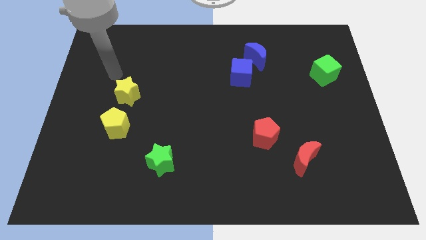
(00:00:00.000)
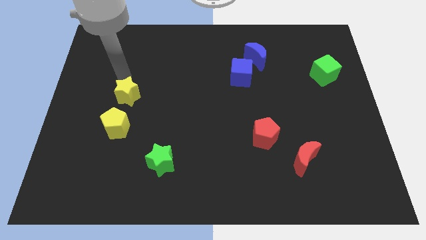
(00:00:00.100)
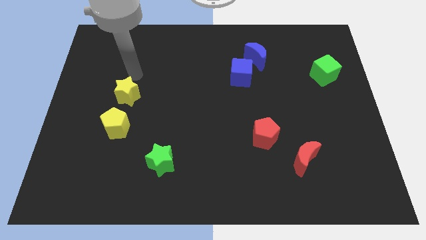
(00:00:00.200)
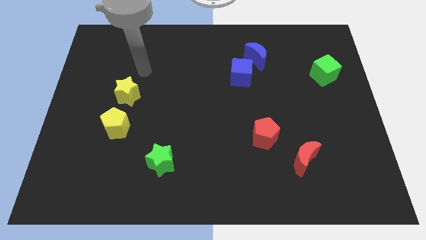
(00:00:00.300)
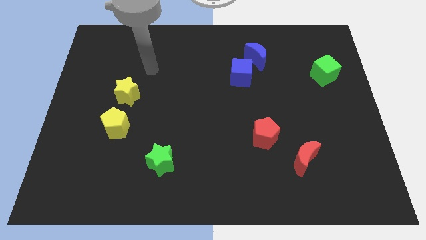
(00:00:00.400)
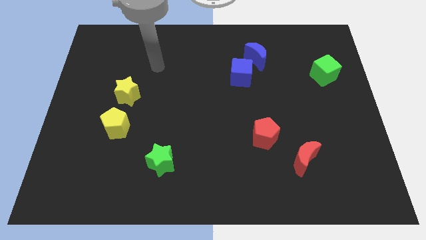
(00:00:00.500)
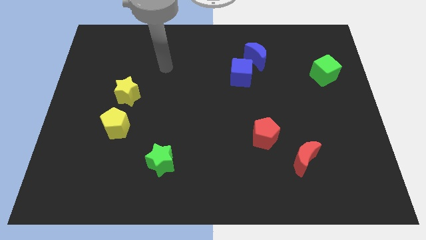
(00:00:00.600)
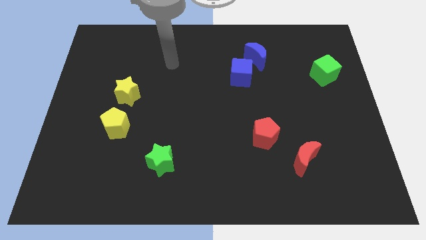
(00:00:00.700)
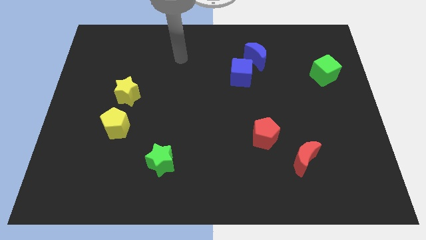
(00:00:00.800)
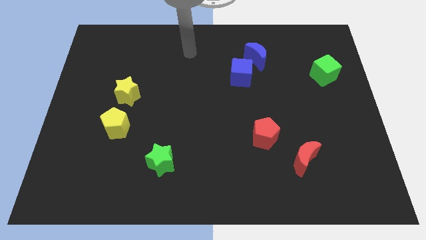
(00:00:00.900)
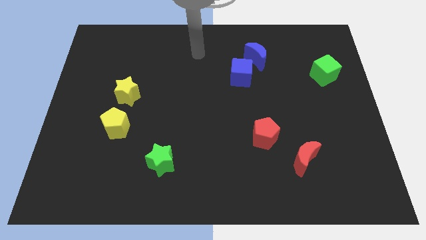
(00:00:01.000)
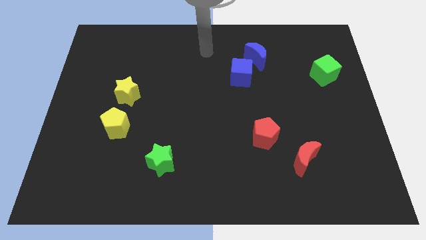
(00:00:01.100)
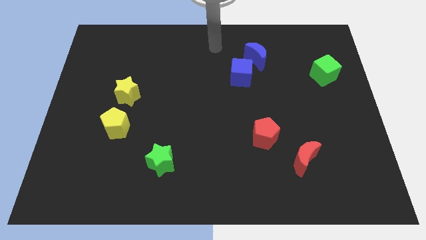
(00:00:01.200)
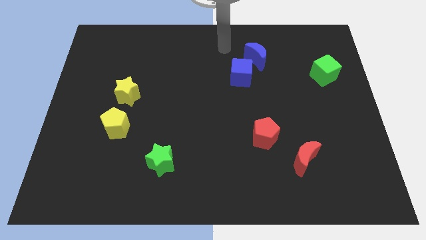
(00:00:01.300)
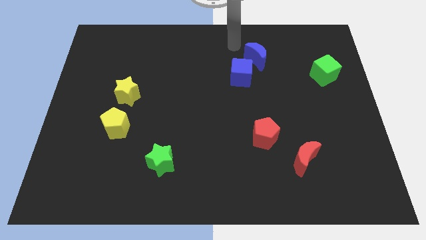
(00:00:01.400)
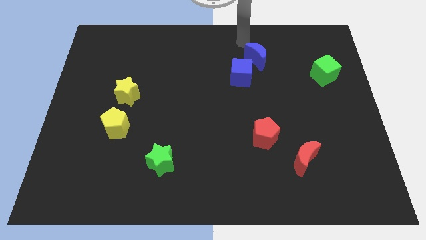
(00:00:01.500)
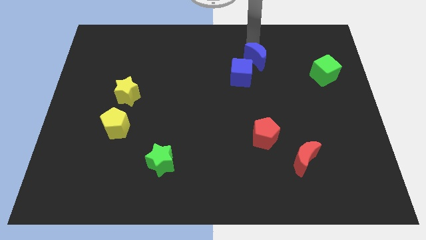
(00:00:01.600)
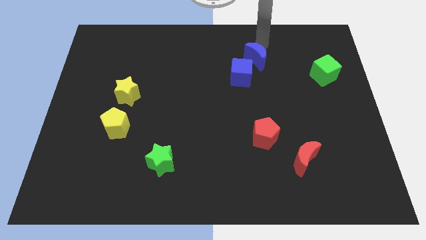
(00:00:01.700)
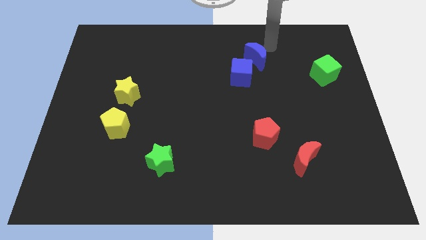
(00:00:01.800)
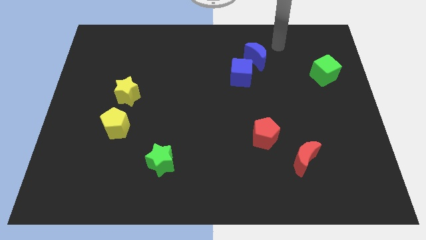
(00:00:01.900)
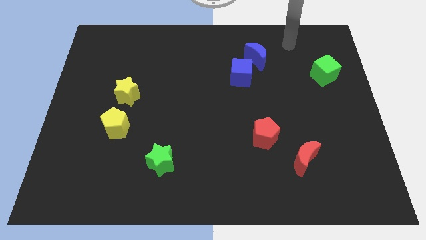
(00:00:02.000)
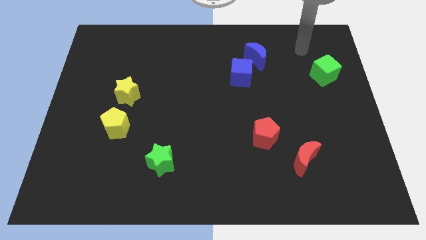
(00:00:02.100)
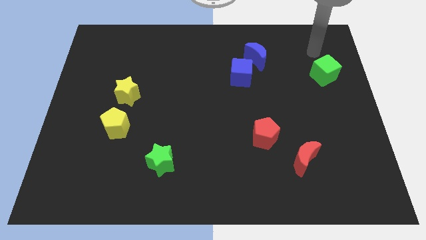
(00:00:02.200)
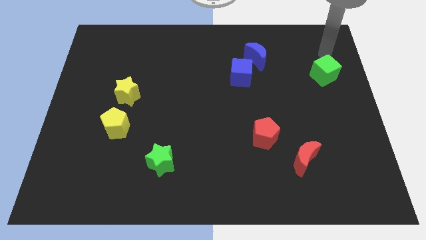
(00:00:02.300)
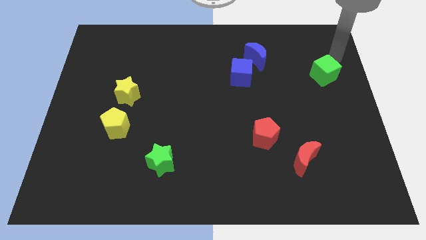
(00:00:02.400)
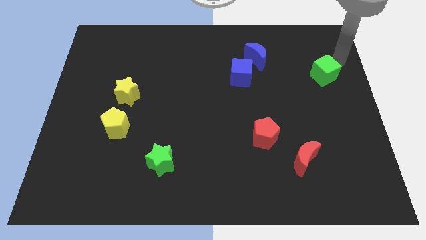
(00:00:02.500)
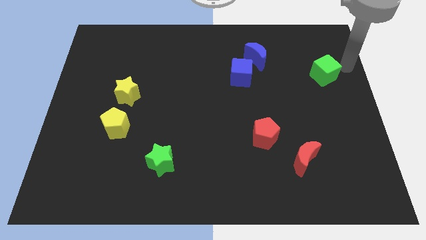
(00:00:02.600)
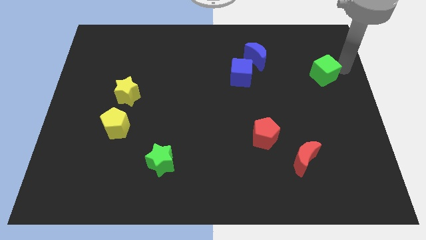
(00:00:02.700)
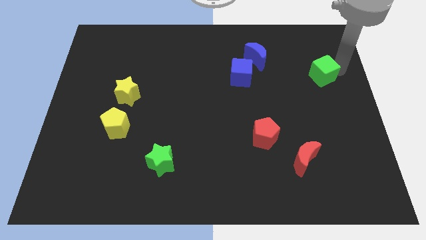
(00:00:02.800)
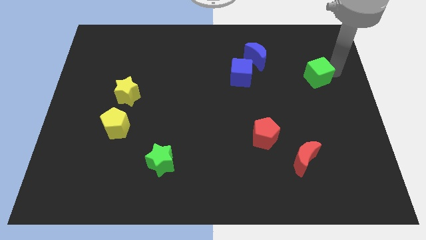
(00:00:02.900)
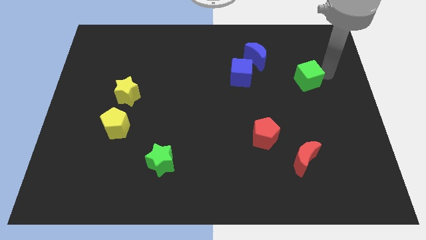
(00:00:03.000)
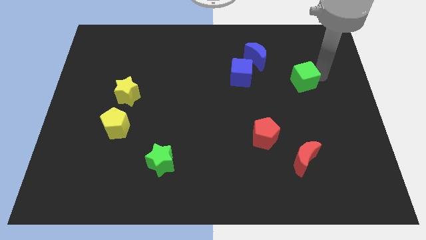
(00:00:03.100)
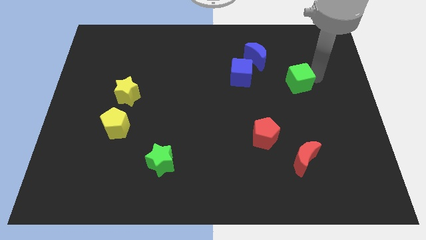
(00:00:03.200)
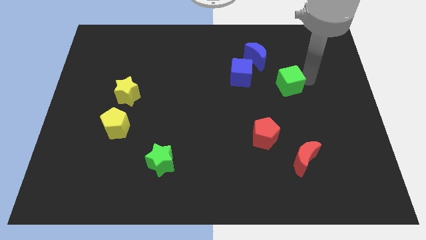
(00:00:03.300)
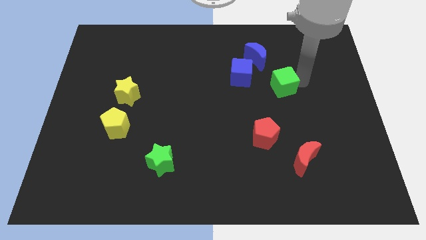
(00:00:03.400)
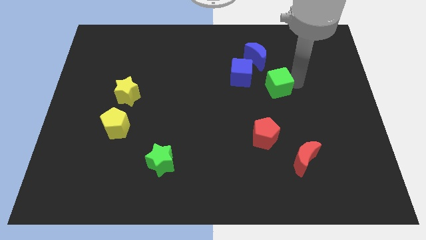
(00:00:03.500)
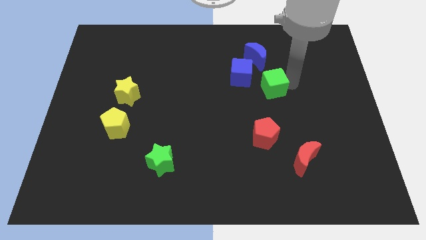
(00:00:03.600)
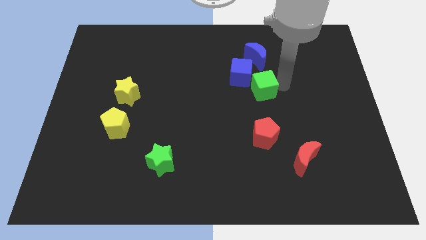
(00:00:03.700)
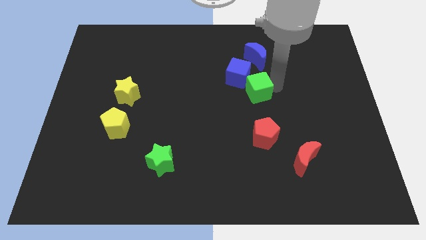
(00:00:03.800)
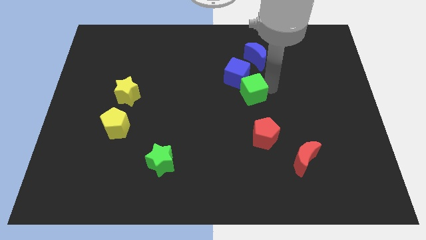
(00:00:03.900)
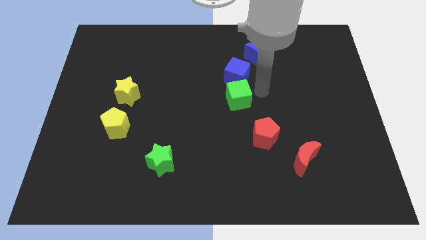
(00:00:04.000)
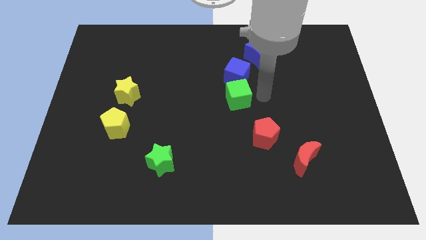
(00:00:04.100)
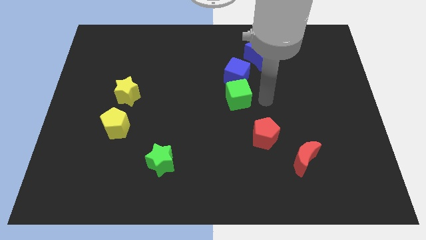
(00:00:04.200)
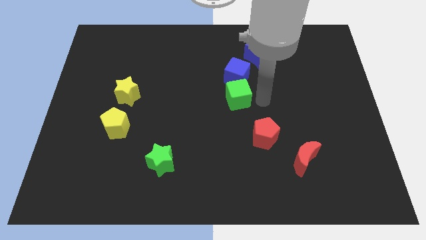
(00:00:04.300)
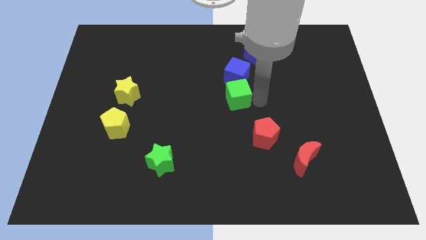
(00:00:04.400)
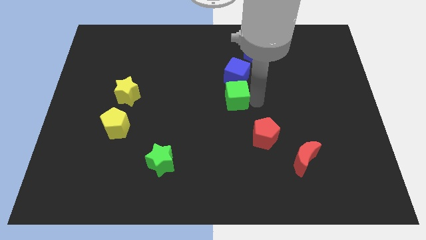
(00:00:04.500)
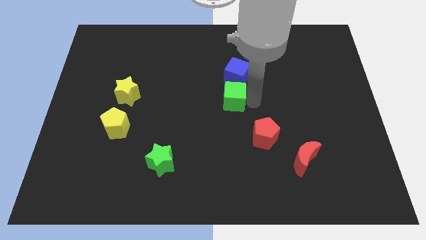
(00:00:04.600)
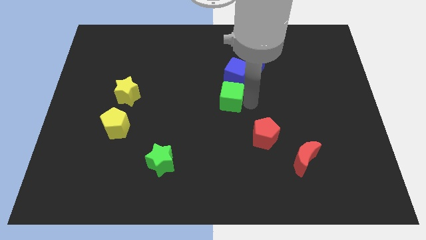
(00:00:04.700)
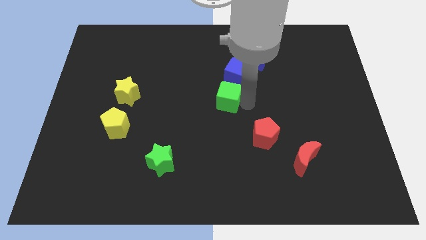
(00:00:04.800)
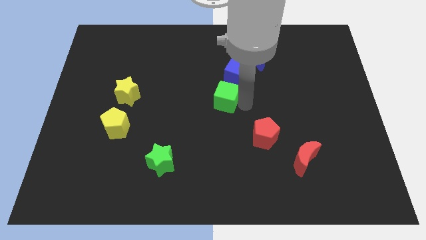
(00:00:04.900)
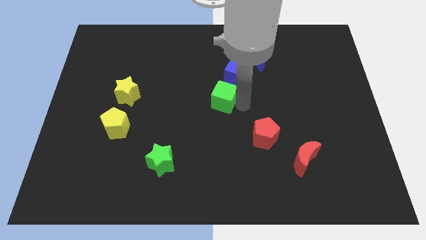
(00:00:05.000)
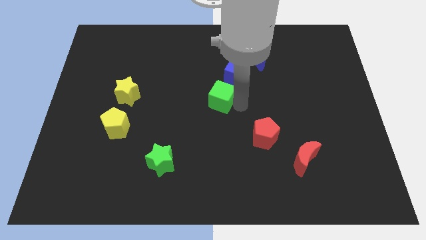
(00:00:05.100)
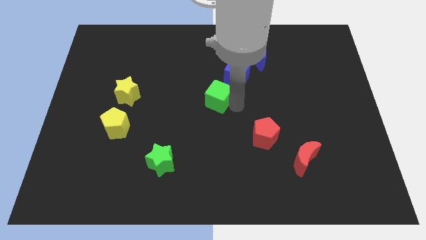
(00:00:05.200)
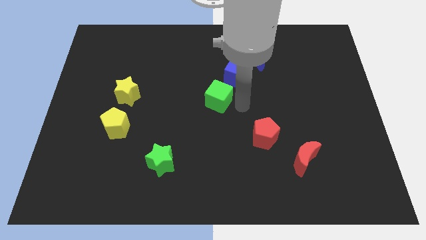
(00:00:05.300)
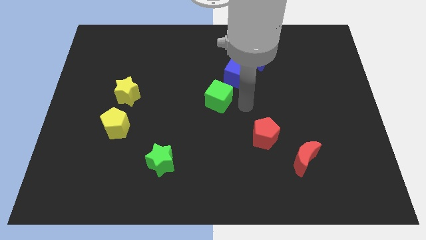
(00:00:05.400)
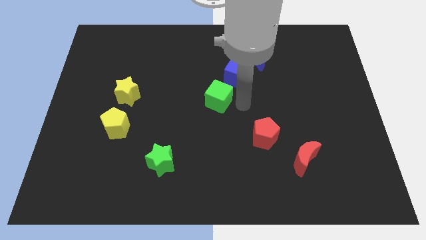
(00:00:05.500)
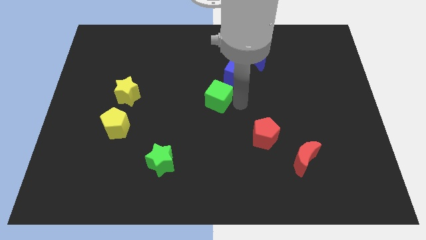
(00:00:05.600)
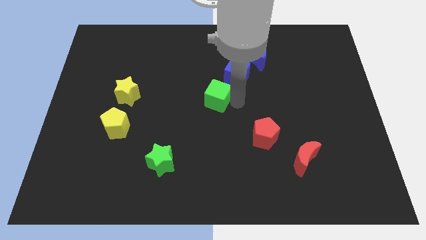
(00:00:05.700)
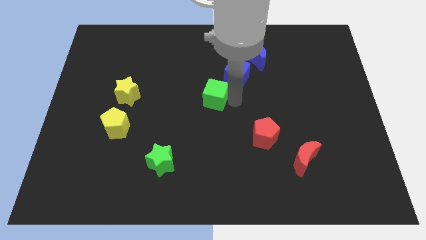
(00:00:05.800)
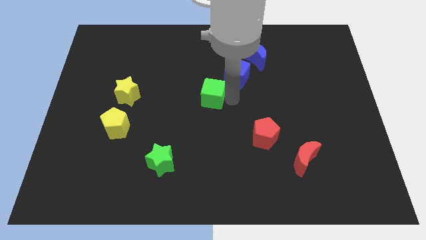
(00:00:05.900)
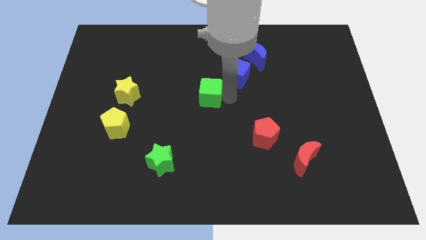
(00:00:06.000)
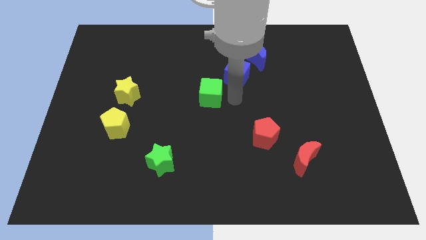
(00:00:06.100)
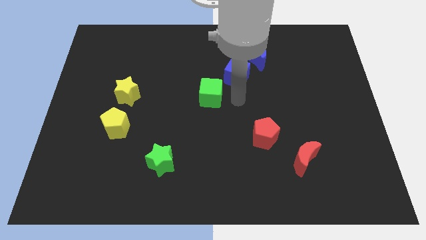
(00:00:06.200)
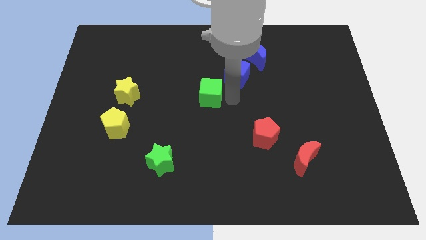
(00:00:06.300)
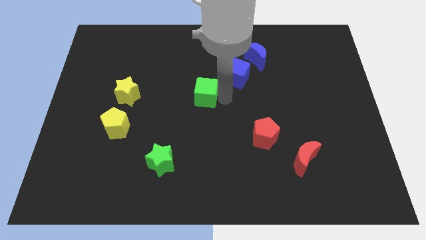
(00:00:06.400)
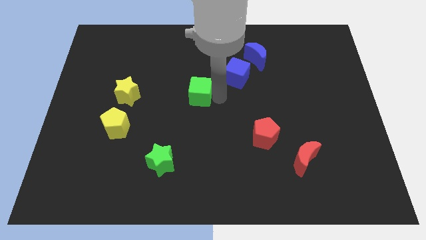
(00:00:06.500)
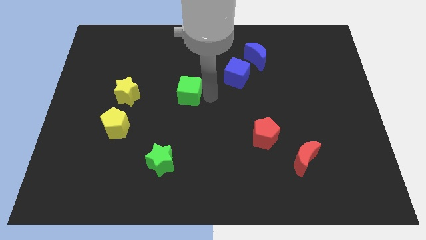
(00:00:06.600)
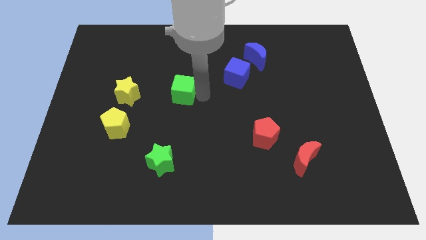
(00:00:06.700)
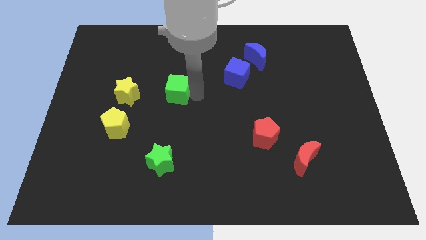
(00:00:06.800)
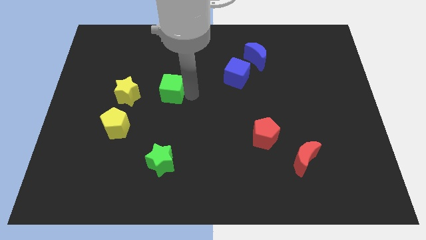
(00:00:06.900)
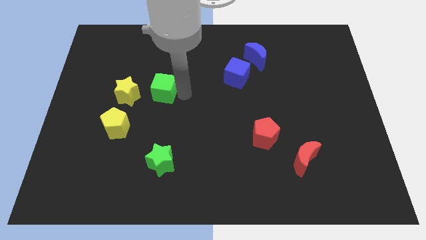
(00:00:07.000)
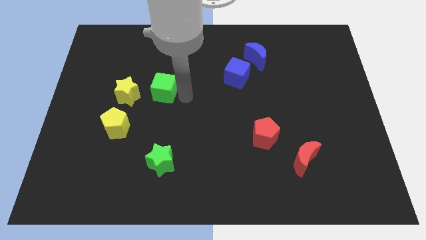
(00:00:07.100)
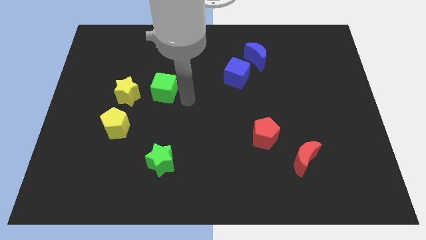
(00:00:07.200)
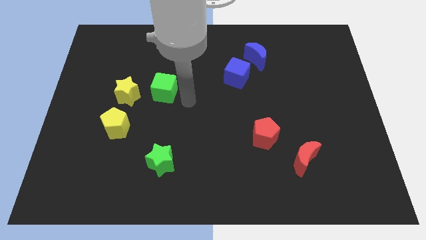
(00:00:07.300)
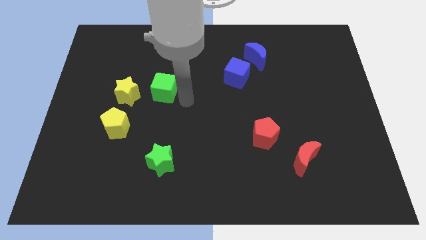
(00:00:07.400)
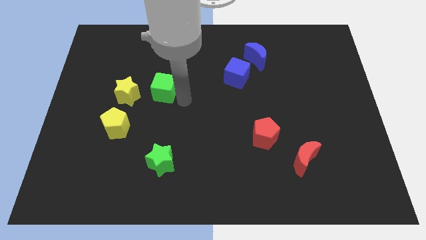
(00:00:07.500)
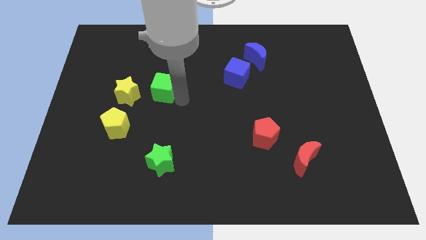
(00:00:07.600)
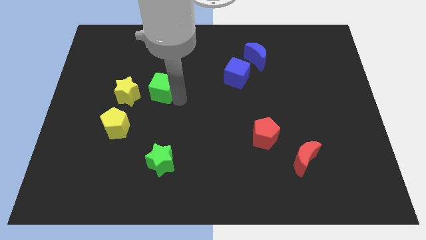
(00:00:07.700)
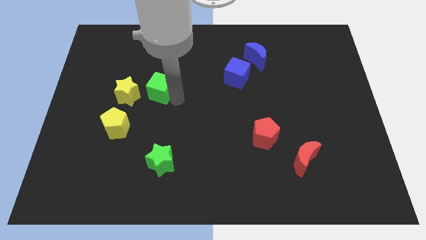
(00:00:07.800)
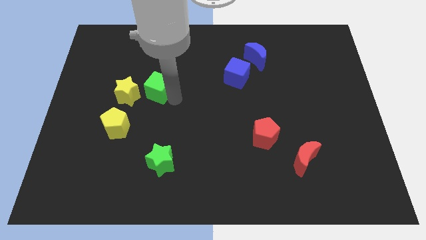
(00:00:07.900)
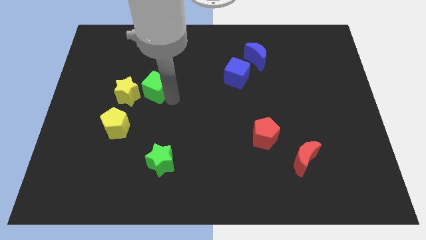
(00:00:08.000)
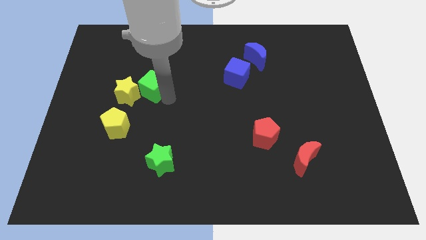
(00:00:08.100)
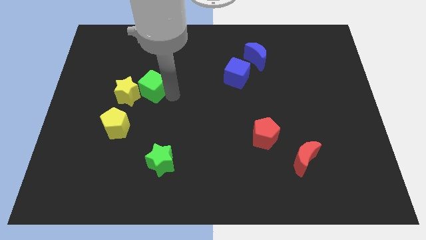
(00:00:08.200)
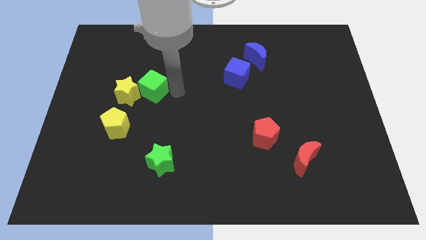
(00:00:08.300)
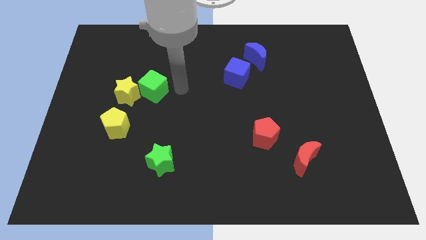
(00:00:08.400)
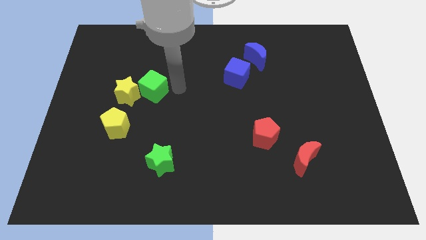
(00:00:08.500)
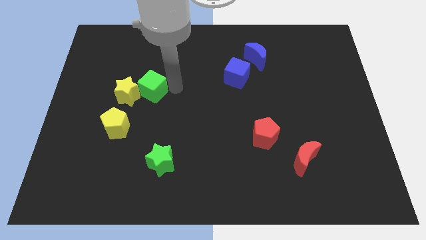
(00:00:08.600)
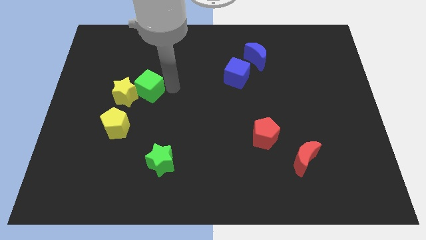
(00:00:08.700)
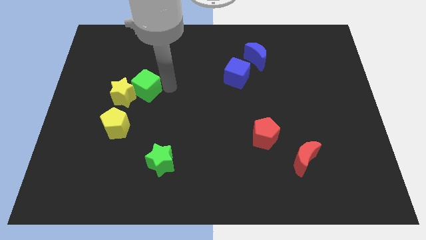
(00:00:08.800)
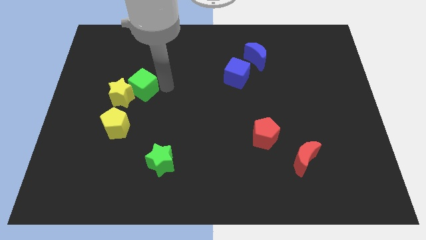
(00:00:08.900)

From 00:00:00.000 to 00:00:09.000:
slide the green cube above the yellow pentagon
